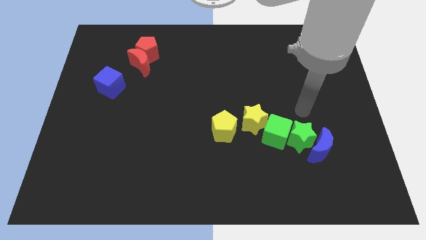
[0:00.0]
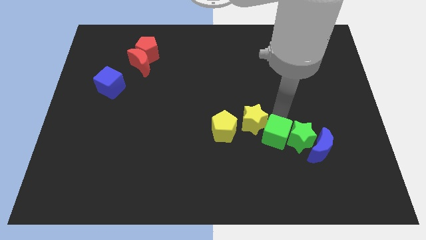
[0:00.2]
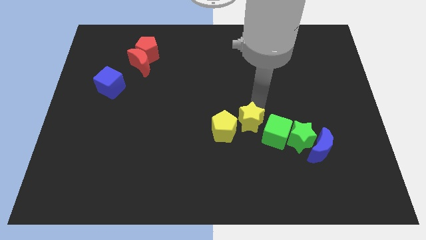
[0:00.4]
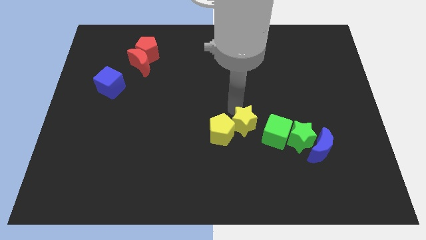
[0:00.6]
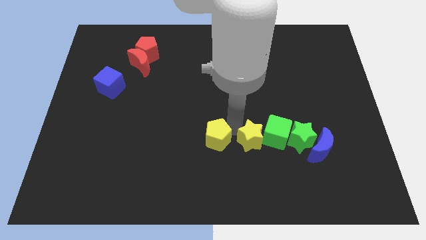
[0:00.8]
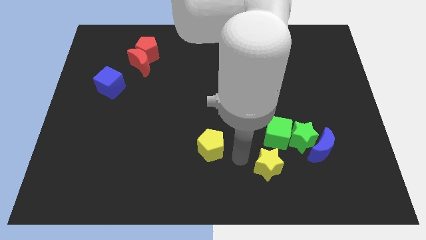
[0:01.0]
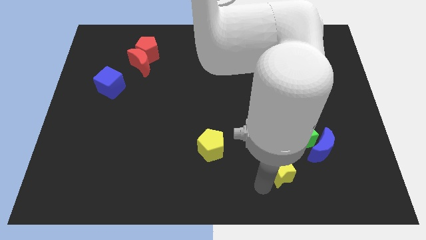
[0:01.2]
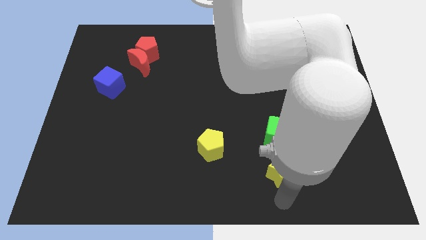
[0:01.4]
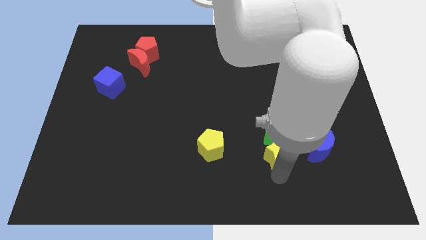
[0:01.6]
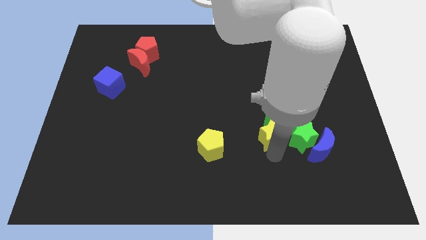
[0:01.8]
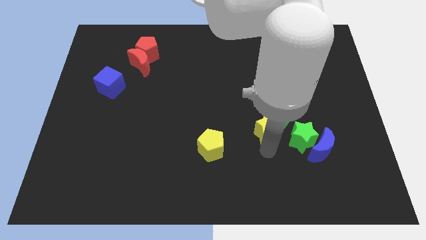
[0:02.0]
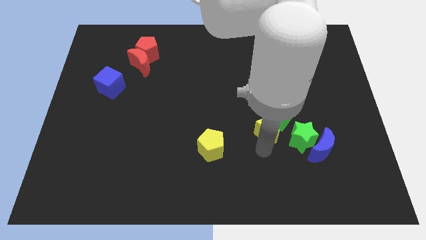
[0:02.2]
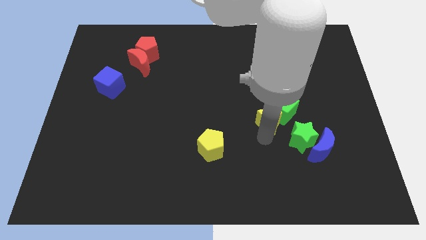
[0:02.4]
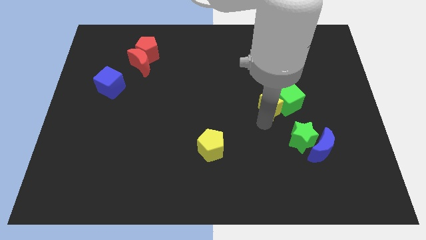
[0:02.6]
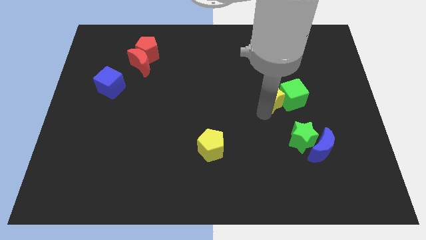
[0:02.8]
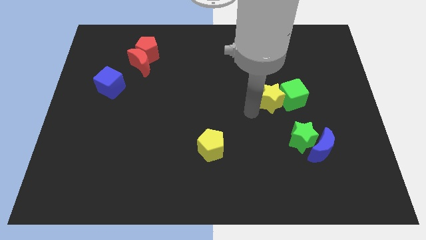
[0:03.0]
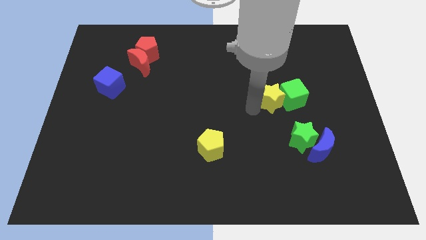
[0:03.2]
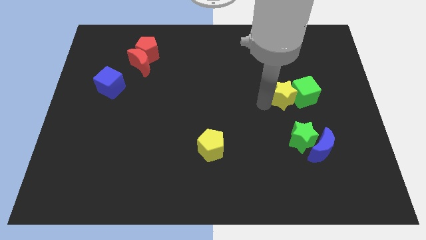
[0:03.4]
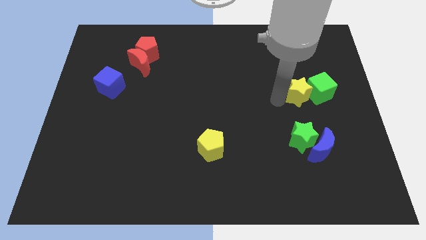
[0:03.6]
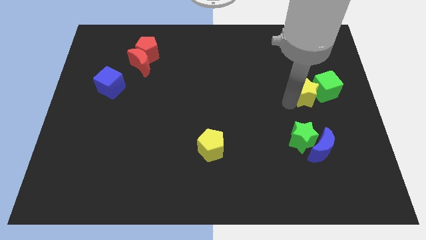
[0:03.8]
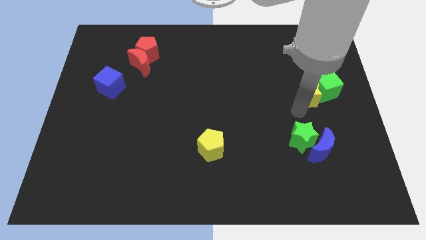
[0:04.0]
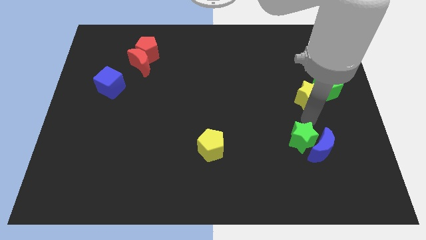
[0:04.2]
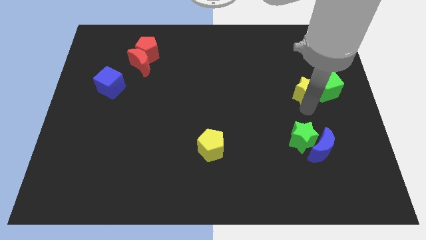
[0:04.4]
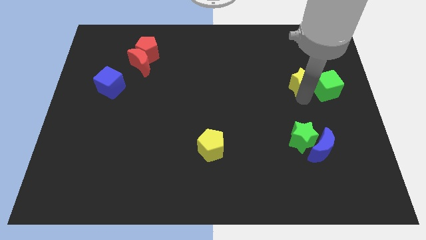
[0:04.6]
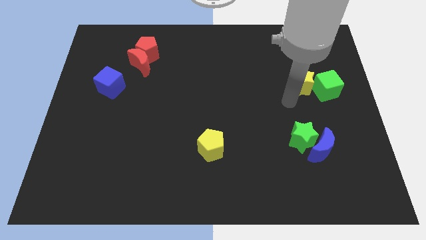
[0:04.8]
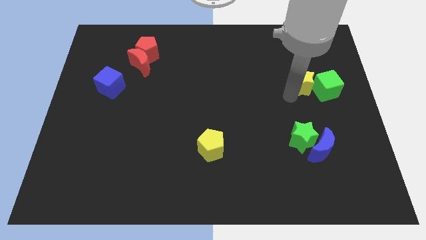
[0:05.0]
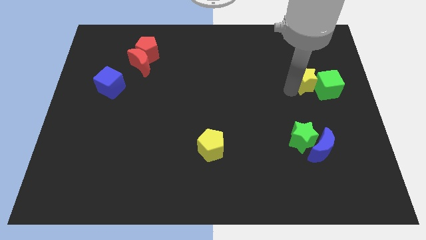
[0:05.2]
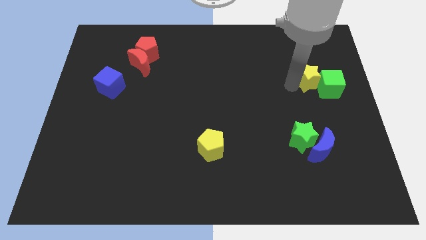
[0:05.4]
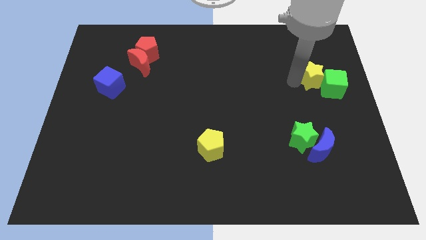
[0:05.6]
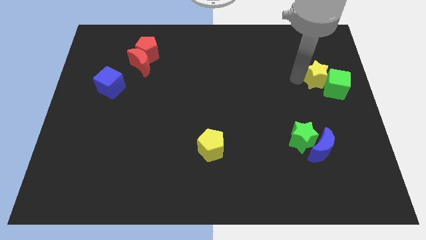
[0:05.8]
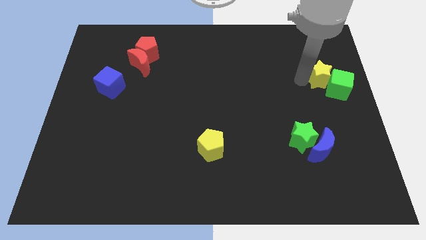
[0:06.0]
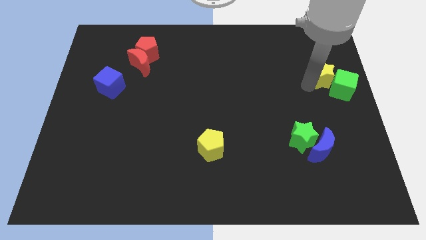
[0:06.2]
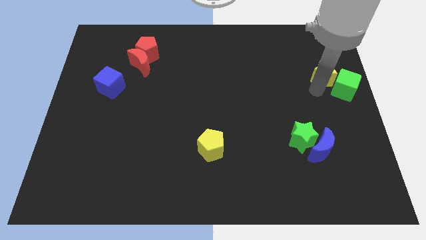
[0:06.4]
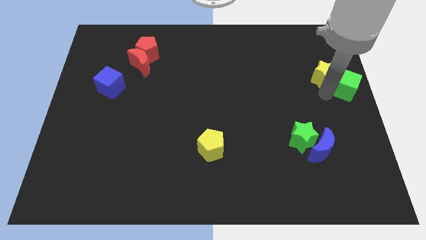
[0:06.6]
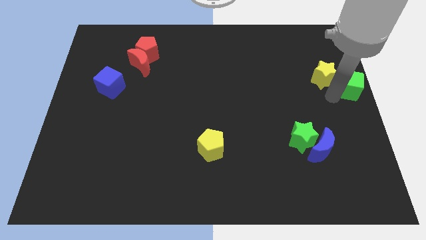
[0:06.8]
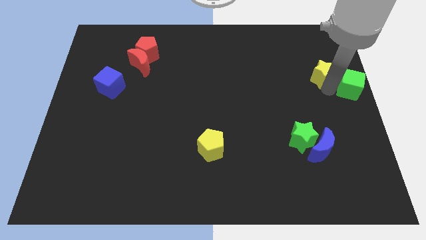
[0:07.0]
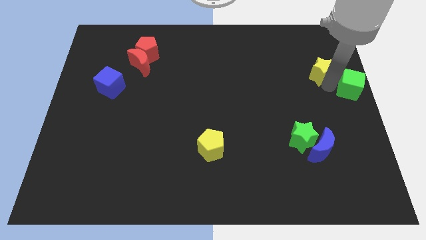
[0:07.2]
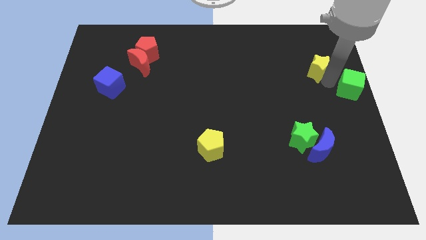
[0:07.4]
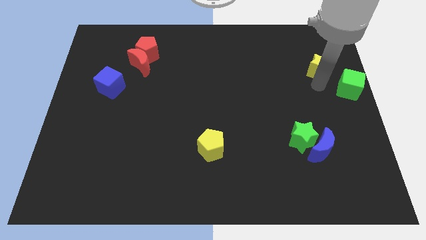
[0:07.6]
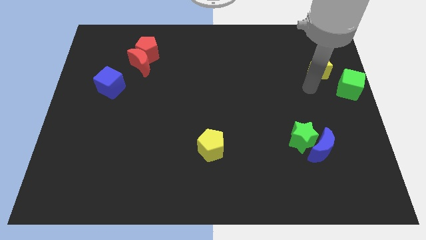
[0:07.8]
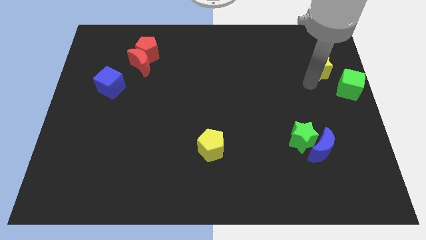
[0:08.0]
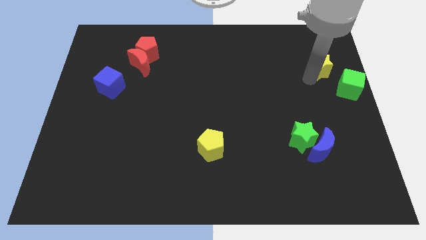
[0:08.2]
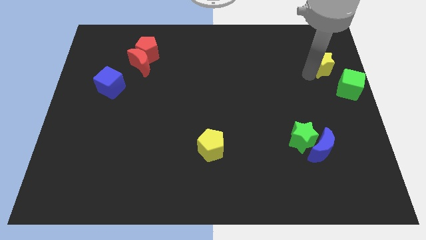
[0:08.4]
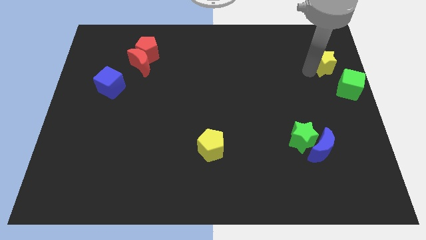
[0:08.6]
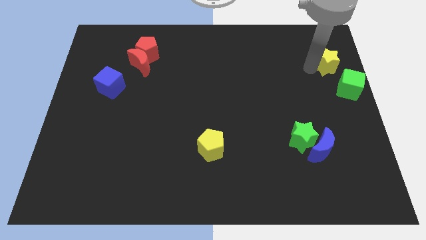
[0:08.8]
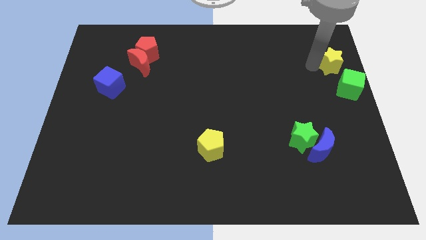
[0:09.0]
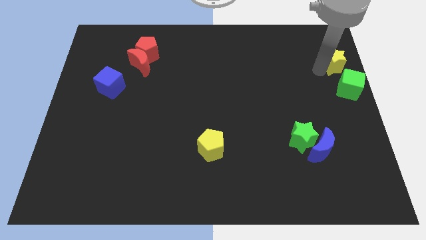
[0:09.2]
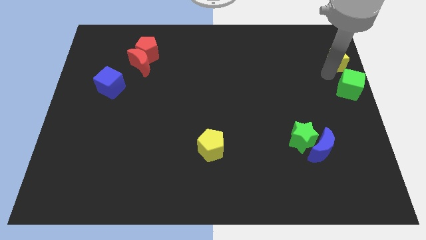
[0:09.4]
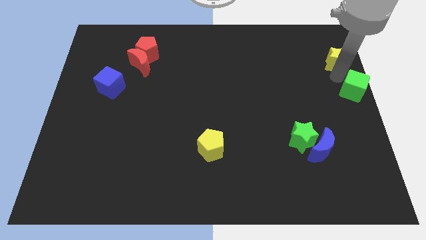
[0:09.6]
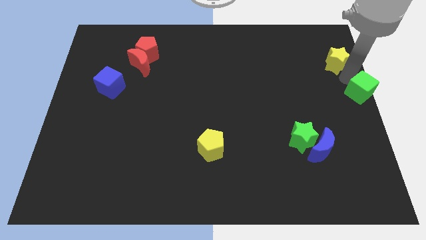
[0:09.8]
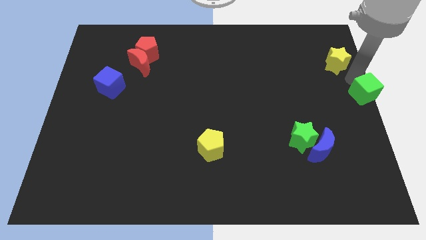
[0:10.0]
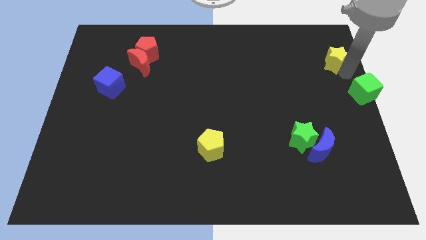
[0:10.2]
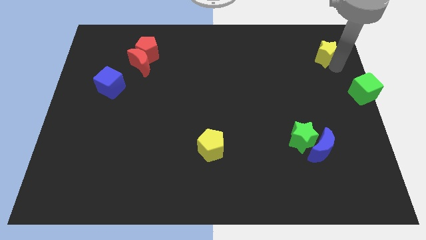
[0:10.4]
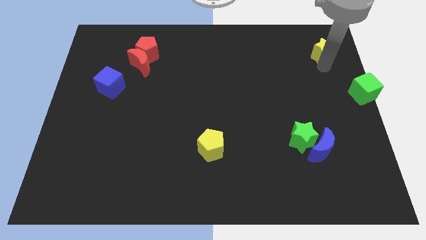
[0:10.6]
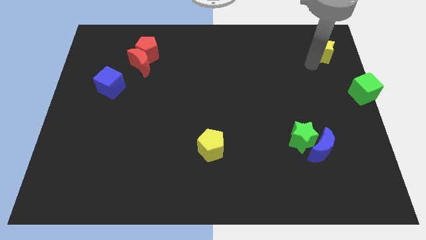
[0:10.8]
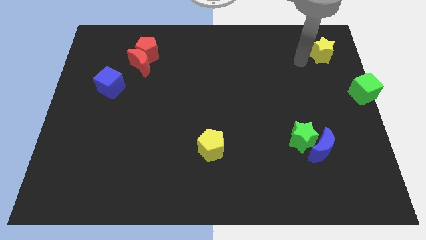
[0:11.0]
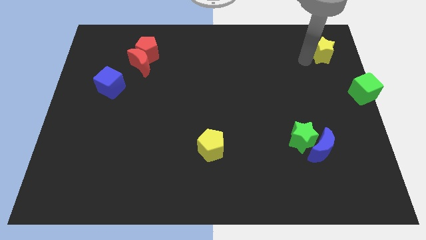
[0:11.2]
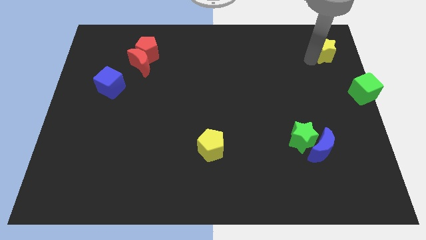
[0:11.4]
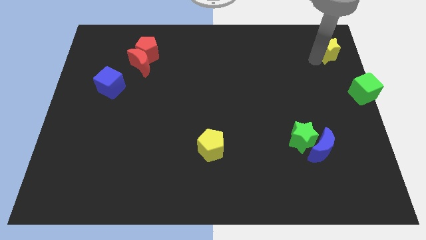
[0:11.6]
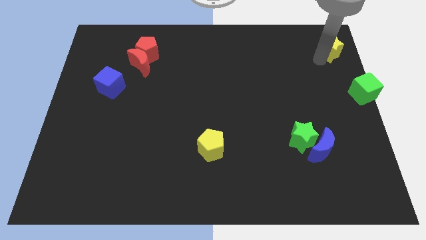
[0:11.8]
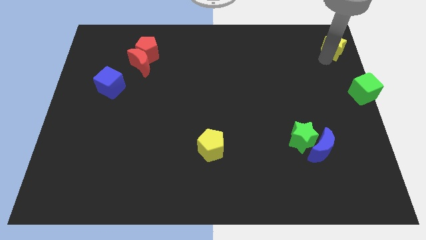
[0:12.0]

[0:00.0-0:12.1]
push the yellow star to the top right of the board

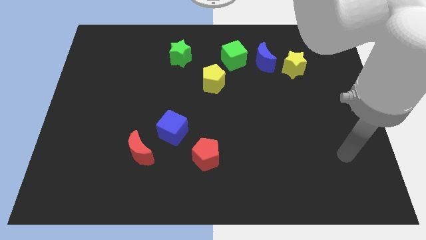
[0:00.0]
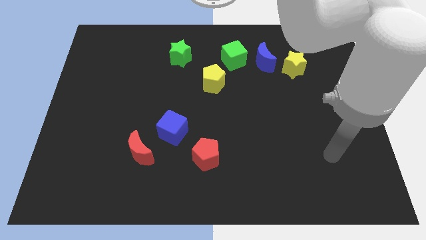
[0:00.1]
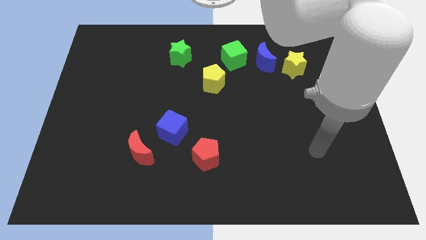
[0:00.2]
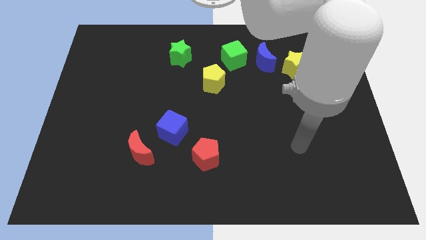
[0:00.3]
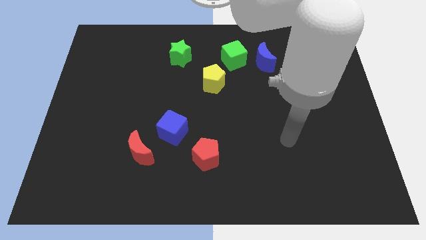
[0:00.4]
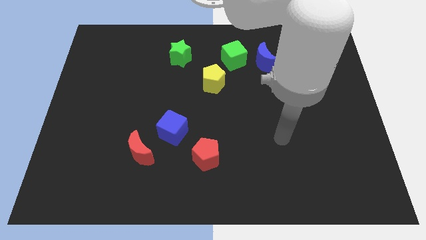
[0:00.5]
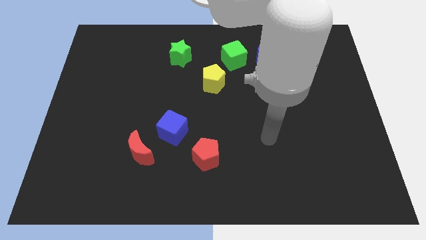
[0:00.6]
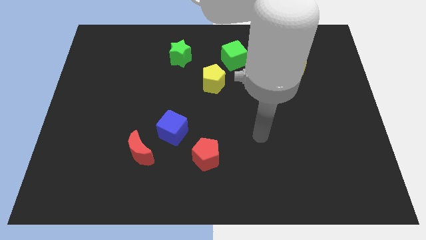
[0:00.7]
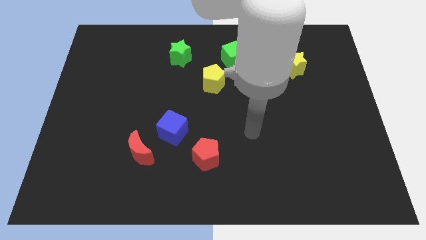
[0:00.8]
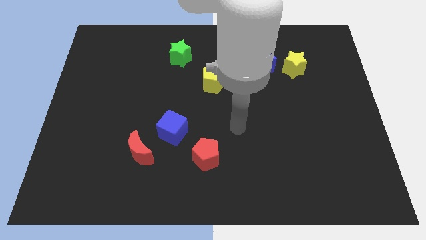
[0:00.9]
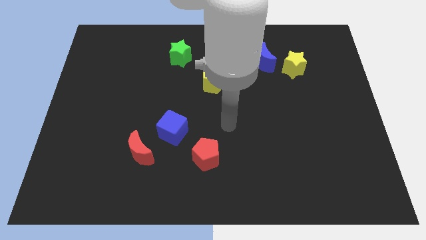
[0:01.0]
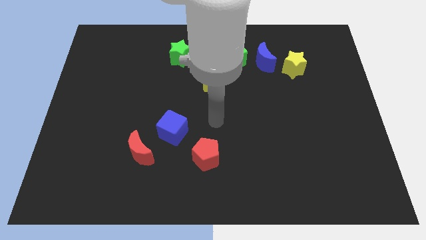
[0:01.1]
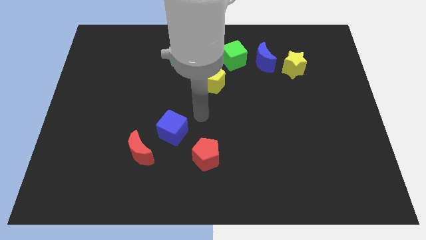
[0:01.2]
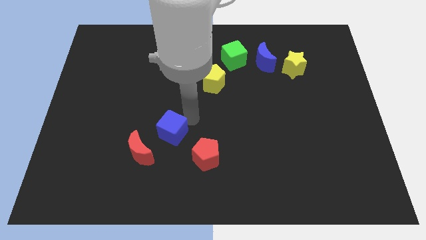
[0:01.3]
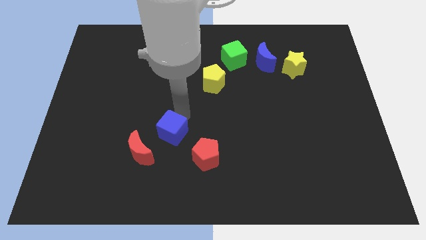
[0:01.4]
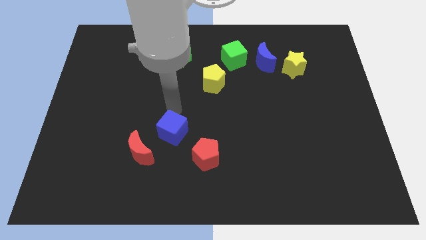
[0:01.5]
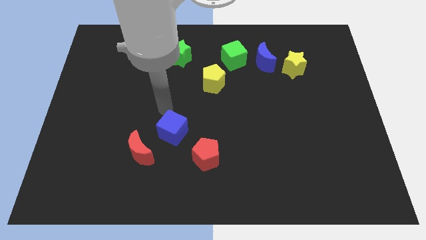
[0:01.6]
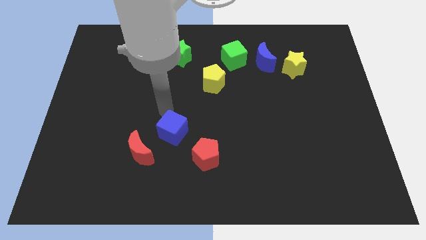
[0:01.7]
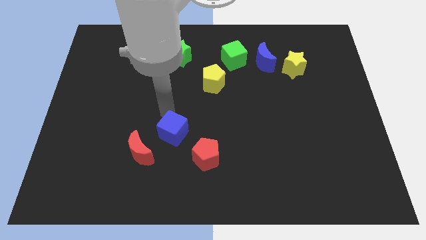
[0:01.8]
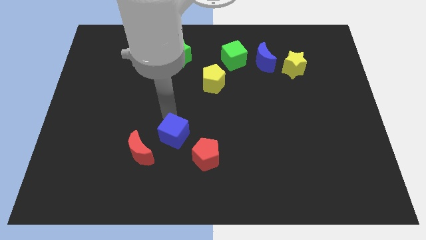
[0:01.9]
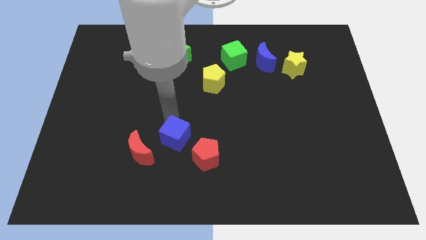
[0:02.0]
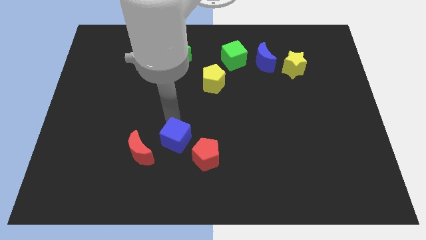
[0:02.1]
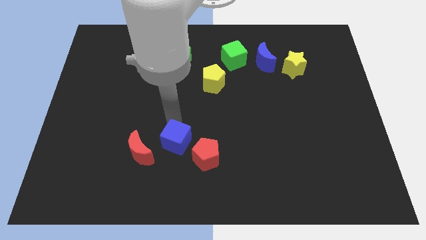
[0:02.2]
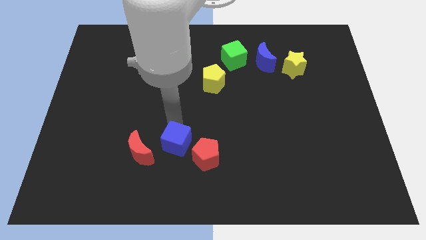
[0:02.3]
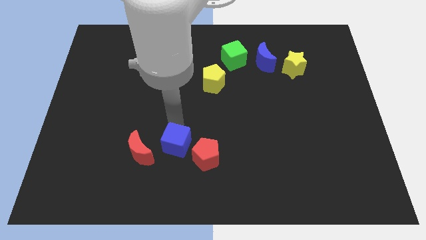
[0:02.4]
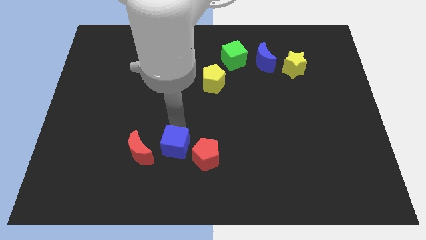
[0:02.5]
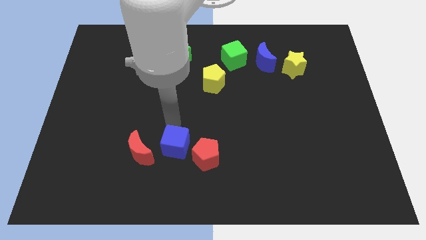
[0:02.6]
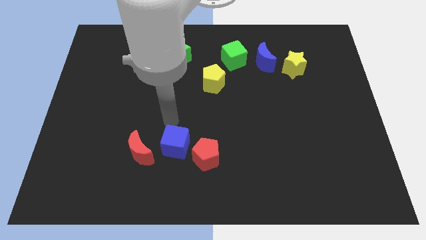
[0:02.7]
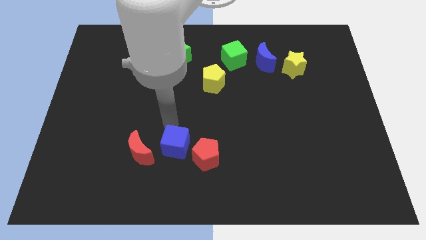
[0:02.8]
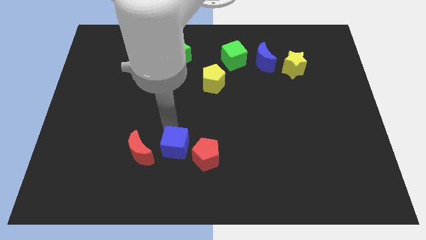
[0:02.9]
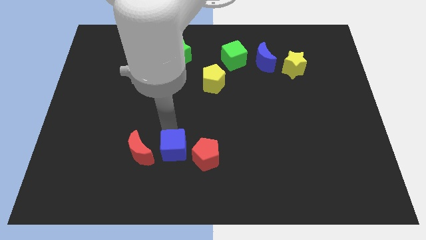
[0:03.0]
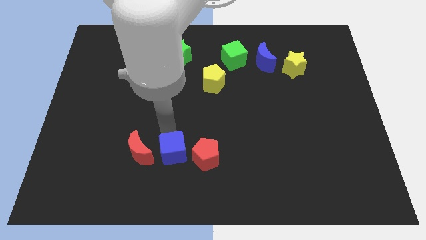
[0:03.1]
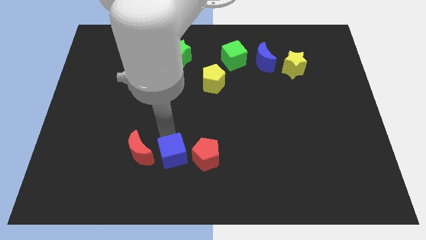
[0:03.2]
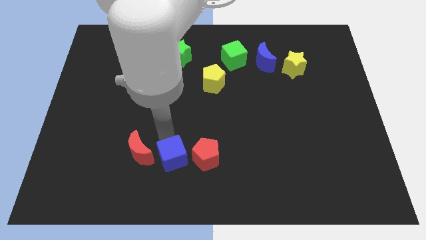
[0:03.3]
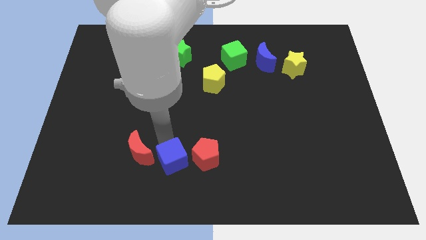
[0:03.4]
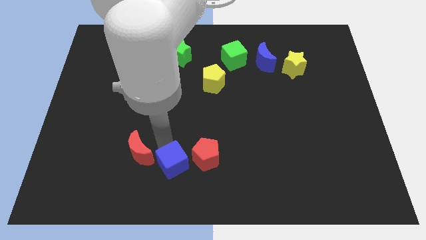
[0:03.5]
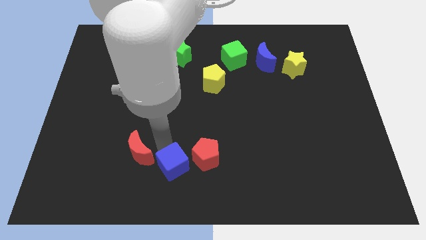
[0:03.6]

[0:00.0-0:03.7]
push the blue cube to the bottom
